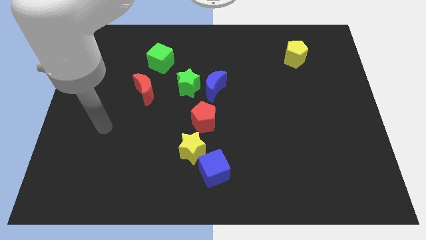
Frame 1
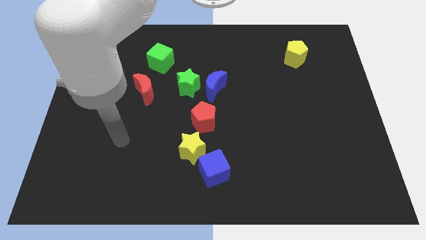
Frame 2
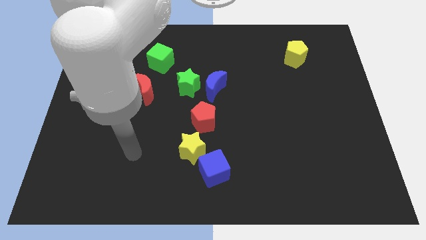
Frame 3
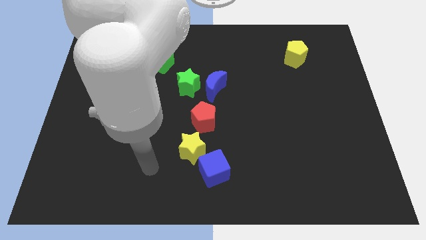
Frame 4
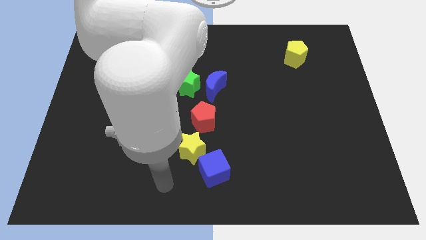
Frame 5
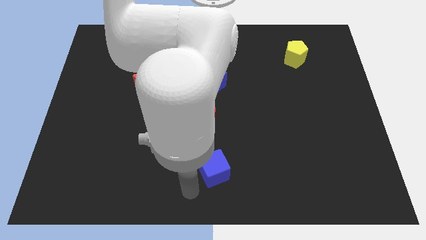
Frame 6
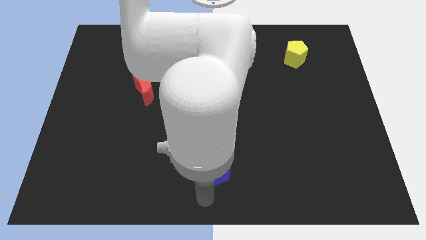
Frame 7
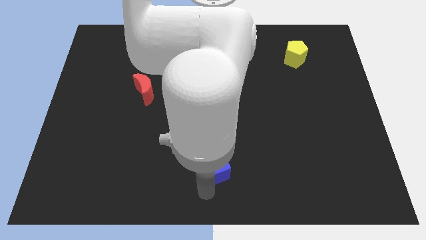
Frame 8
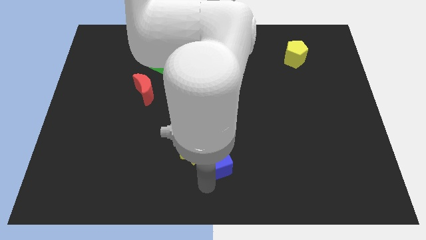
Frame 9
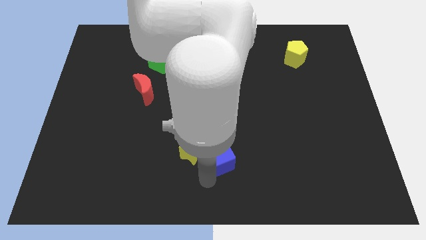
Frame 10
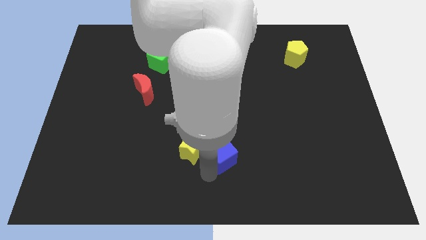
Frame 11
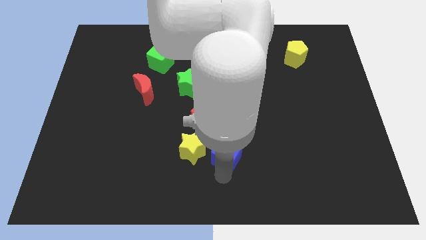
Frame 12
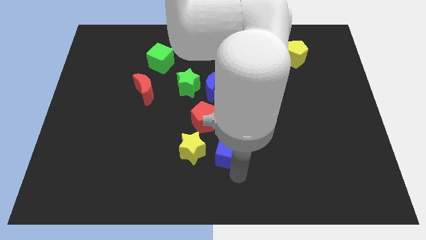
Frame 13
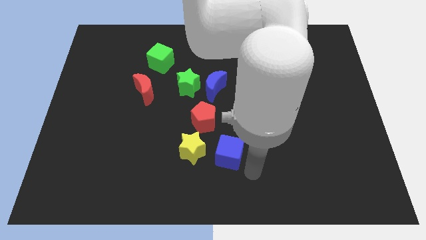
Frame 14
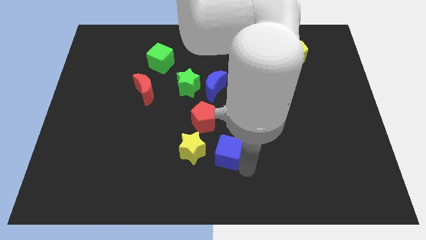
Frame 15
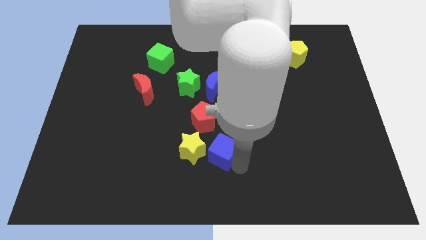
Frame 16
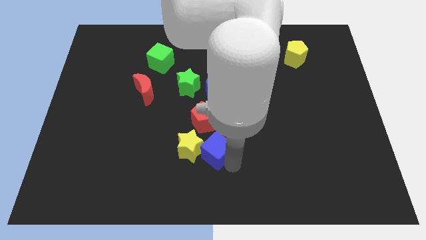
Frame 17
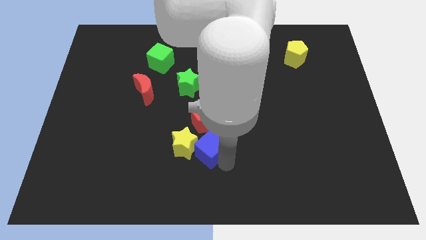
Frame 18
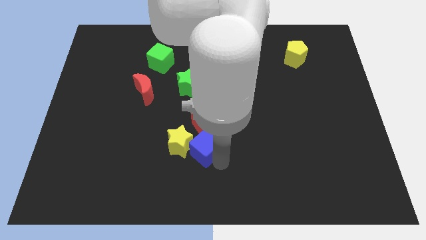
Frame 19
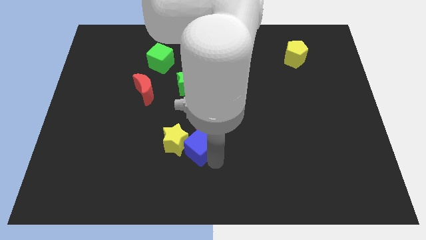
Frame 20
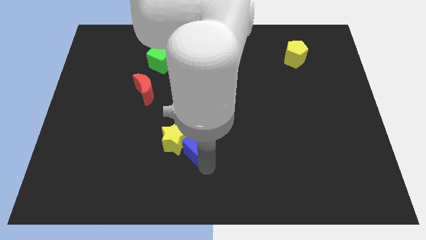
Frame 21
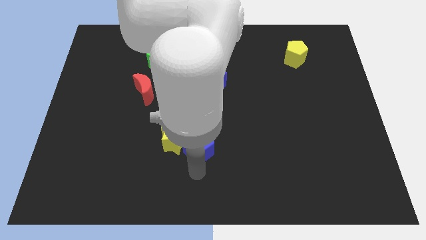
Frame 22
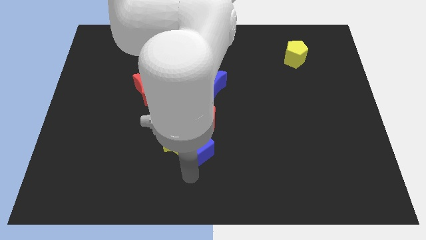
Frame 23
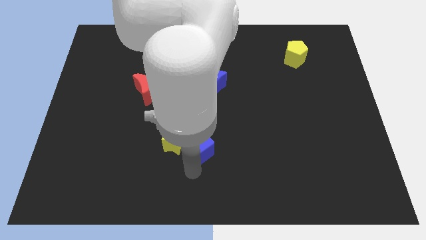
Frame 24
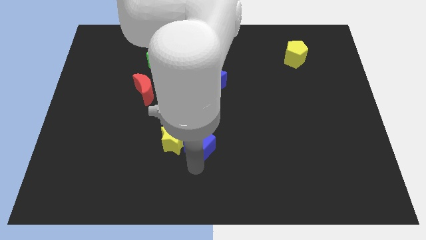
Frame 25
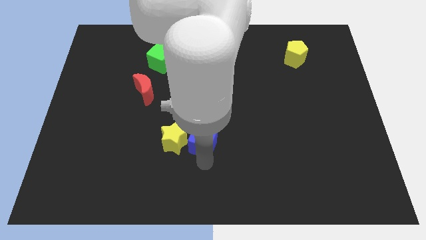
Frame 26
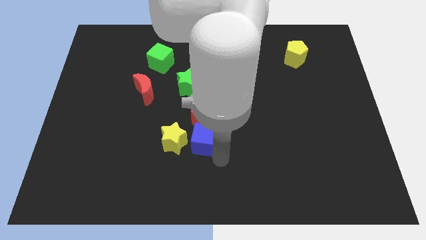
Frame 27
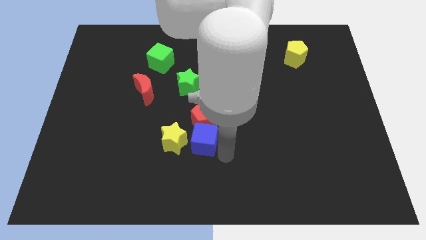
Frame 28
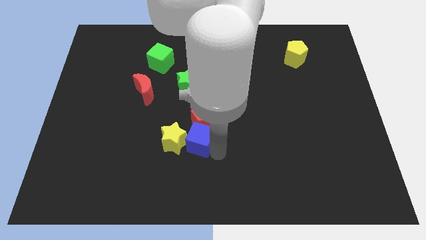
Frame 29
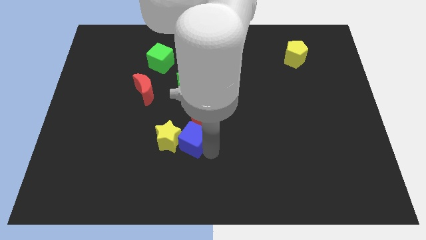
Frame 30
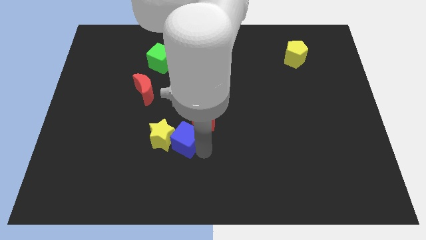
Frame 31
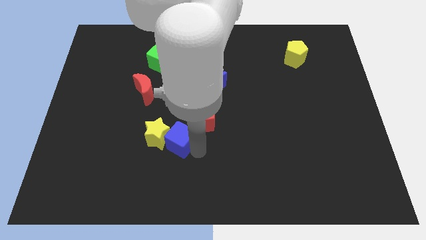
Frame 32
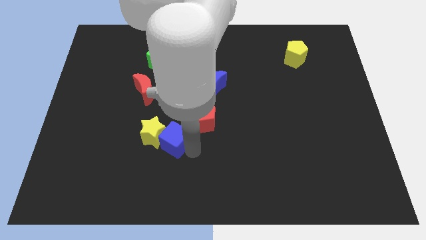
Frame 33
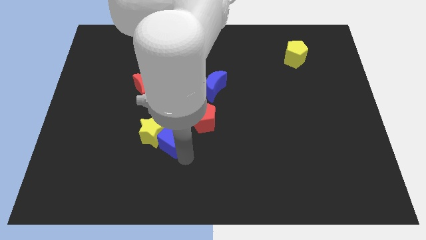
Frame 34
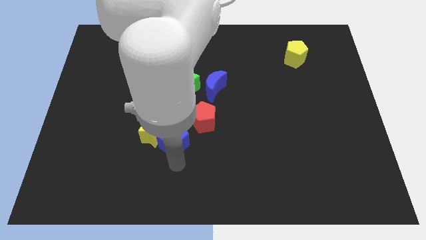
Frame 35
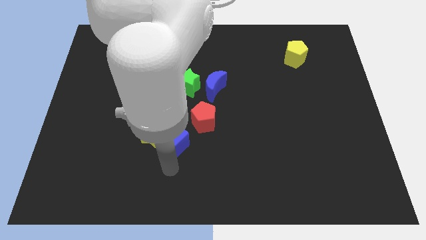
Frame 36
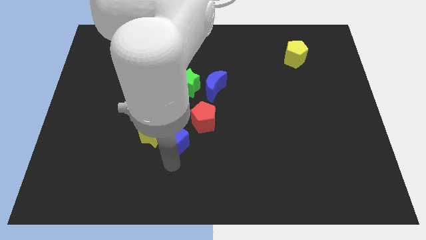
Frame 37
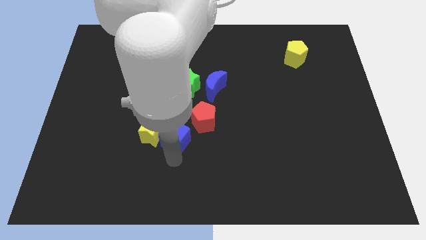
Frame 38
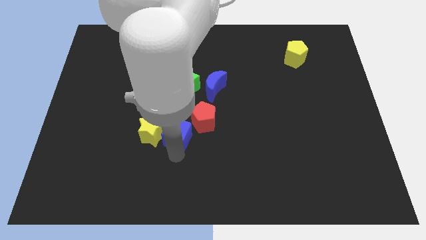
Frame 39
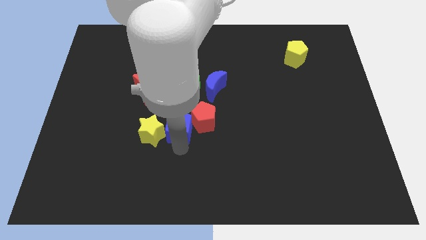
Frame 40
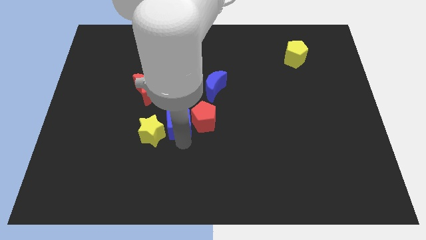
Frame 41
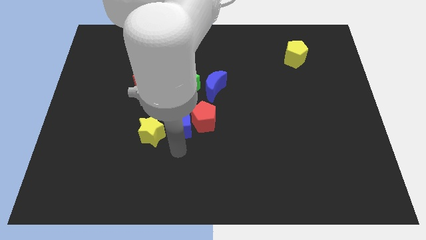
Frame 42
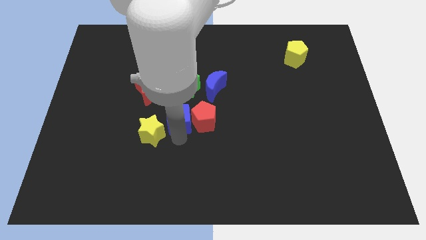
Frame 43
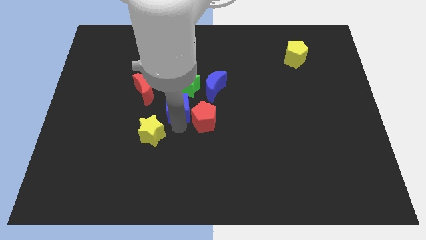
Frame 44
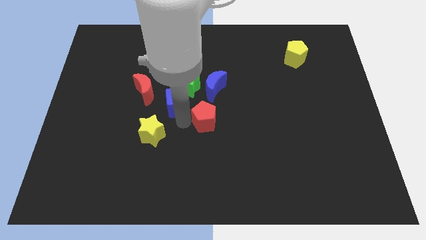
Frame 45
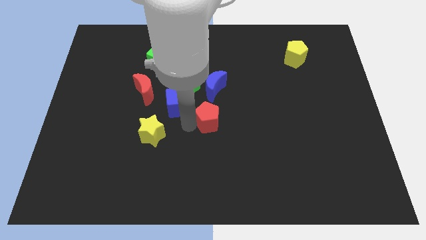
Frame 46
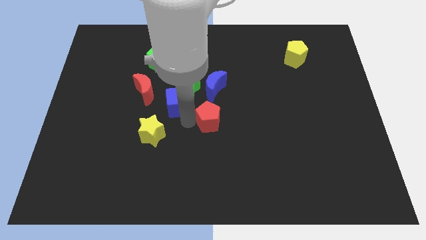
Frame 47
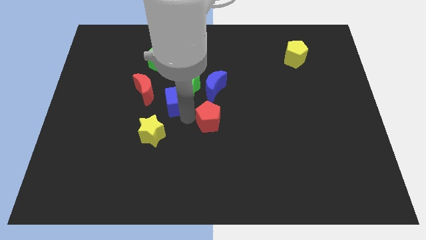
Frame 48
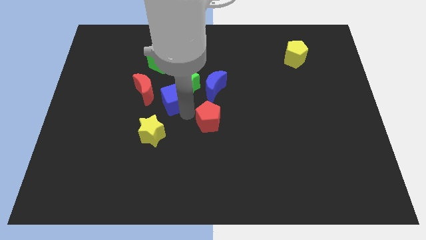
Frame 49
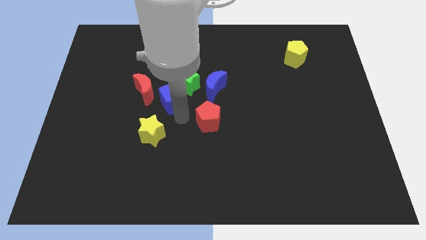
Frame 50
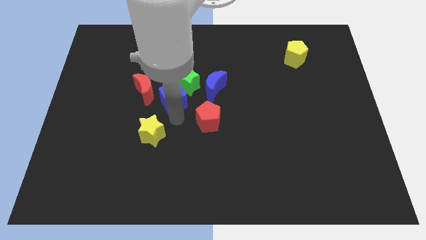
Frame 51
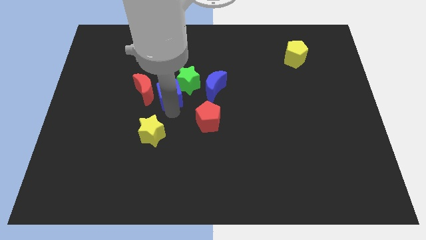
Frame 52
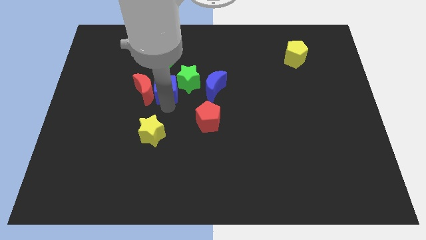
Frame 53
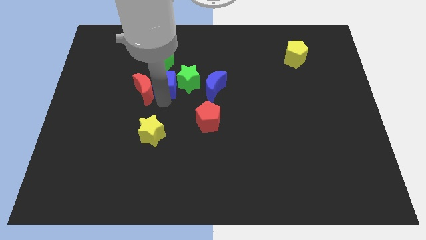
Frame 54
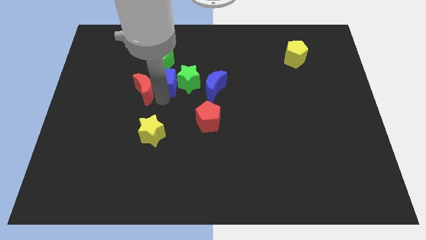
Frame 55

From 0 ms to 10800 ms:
slide the blue cube diagonally up and to the left of the green star

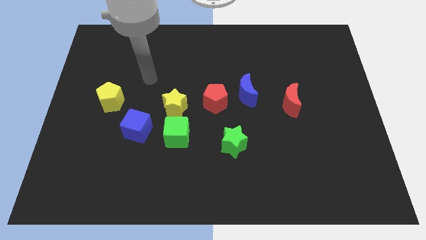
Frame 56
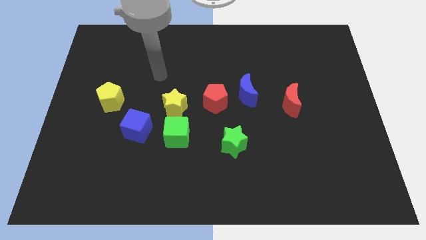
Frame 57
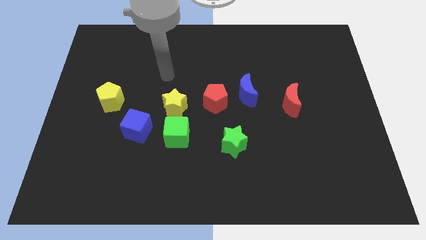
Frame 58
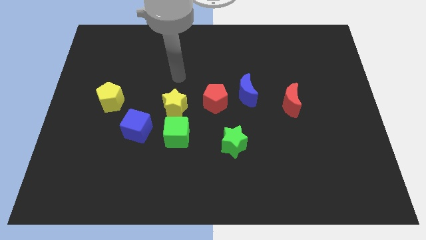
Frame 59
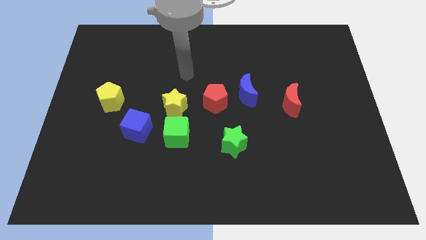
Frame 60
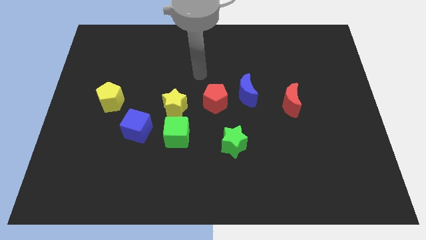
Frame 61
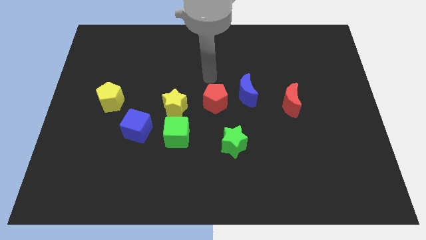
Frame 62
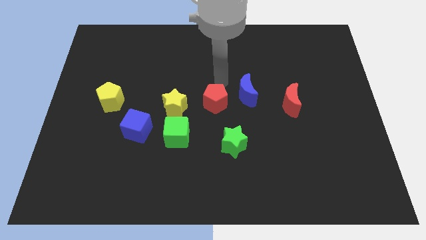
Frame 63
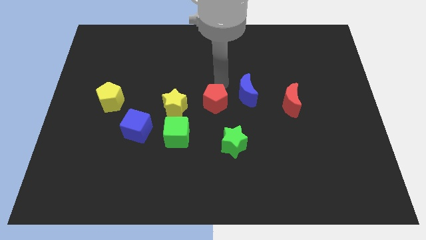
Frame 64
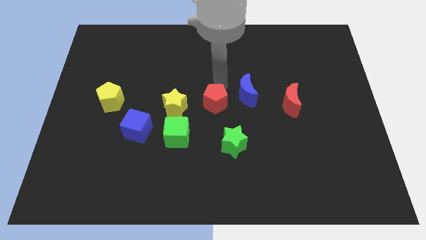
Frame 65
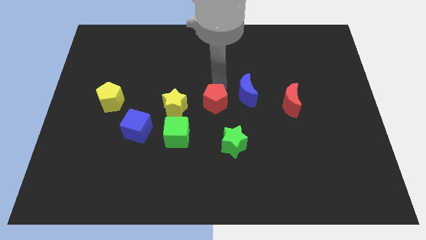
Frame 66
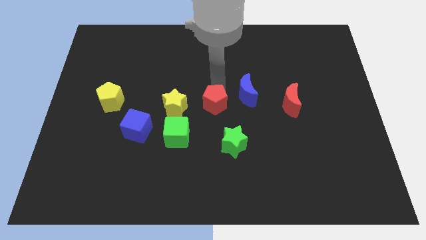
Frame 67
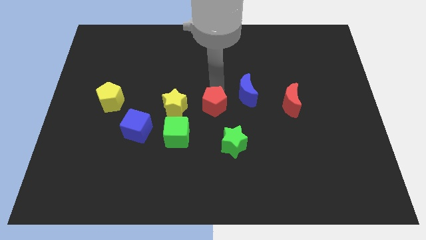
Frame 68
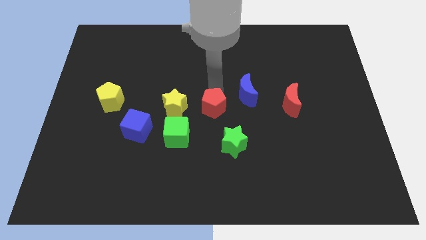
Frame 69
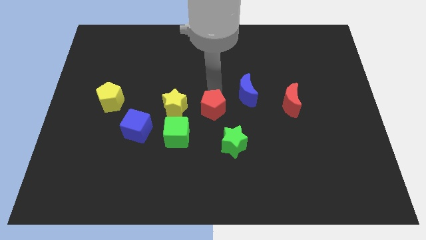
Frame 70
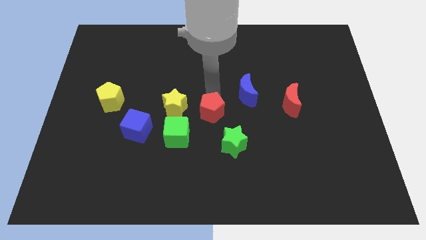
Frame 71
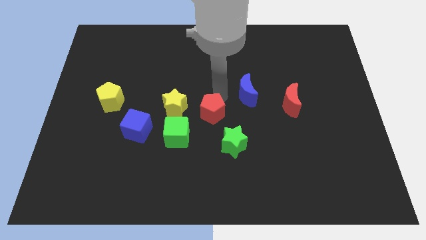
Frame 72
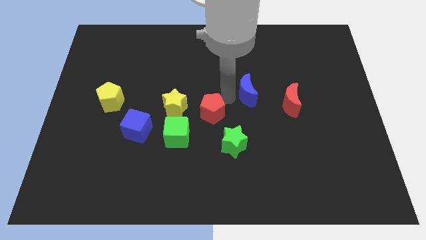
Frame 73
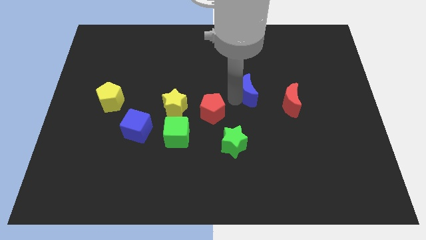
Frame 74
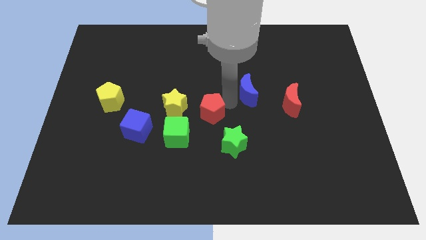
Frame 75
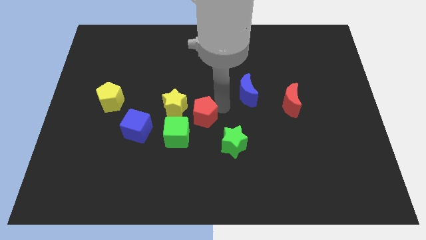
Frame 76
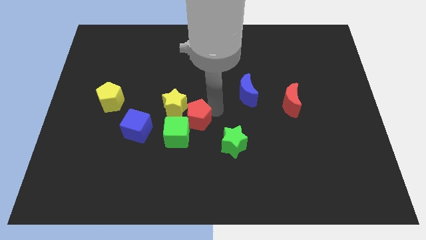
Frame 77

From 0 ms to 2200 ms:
put the red pentagon to the right of the blue cube
